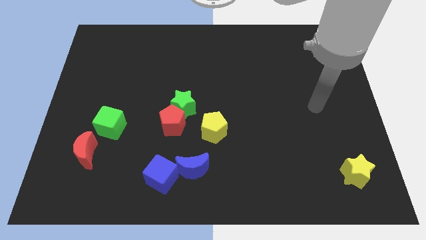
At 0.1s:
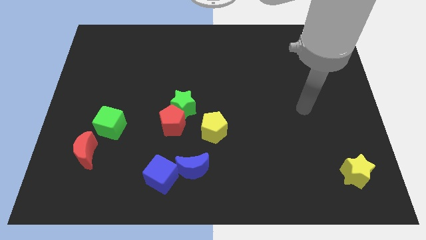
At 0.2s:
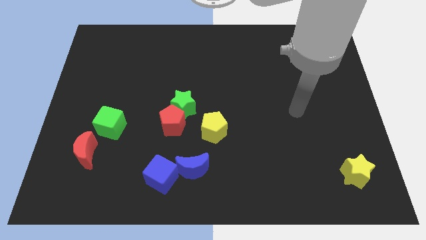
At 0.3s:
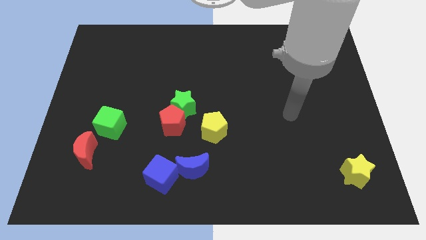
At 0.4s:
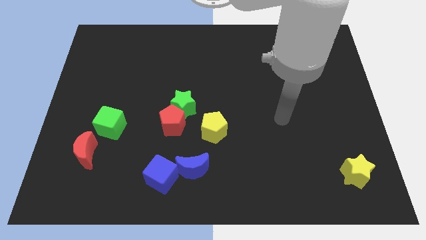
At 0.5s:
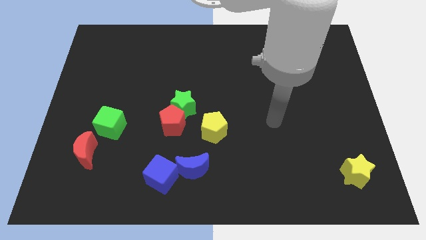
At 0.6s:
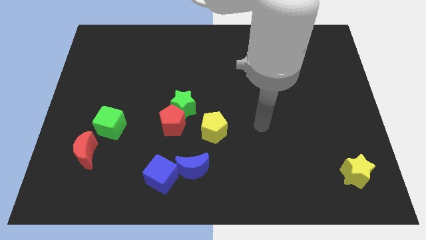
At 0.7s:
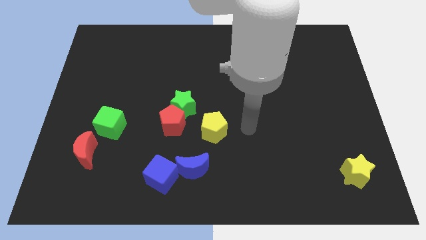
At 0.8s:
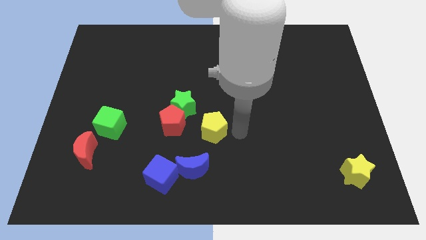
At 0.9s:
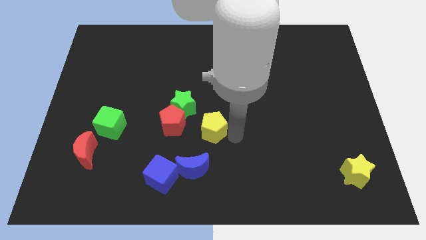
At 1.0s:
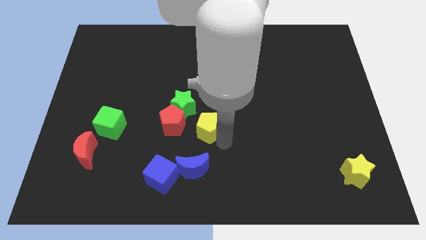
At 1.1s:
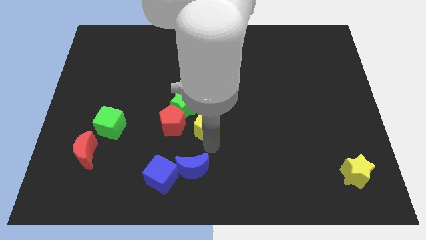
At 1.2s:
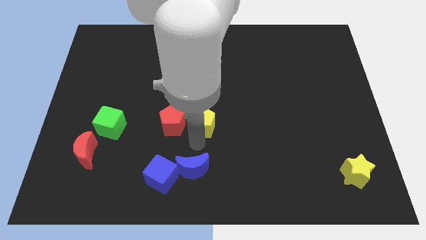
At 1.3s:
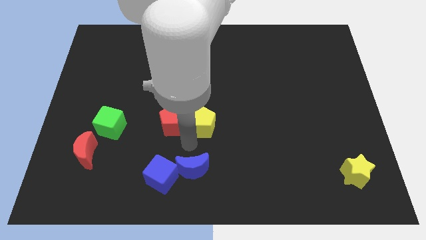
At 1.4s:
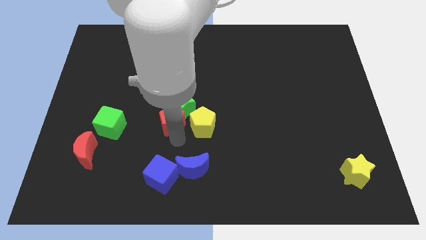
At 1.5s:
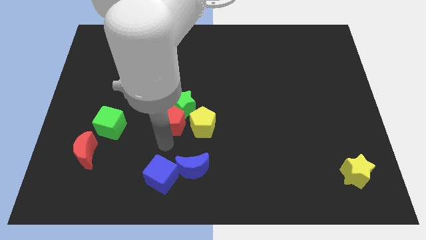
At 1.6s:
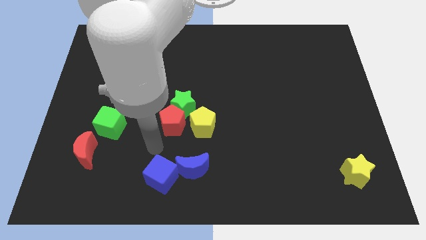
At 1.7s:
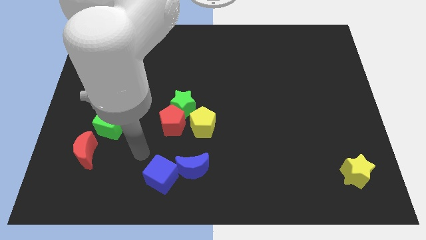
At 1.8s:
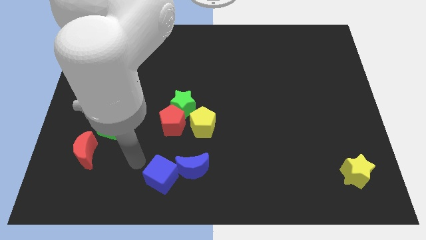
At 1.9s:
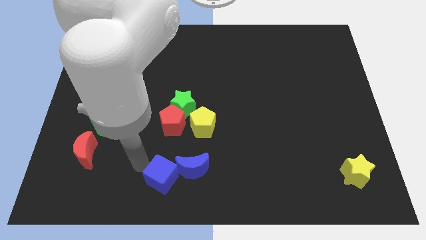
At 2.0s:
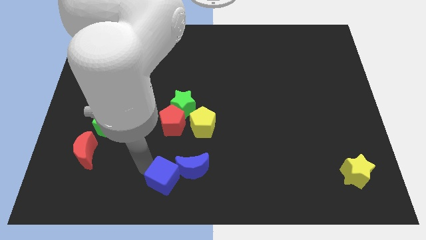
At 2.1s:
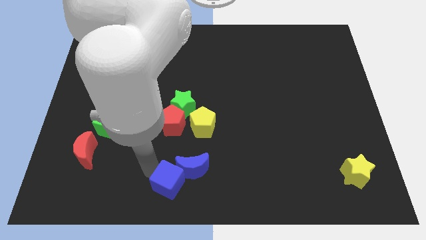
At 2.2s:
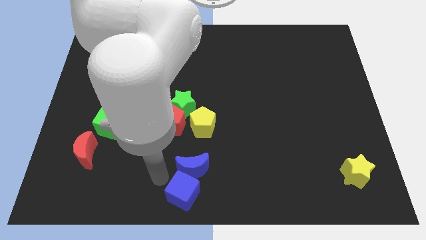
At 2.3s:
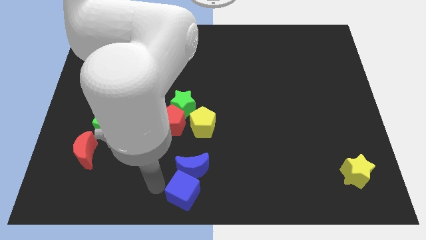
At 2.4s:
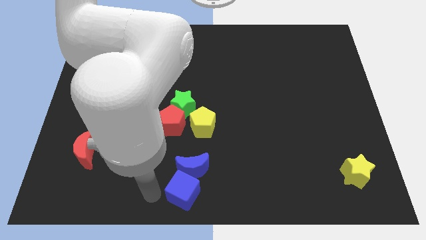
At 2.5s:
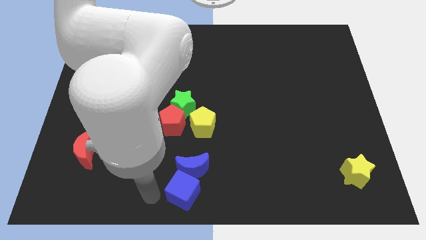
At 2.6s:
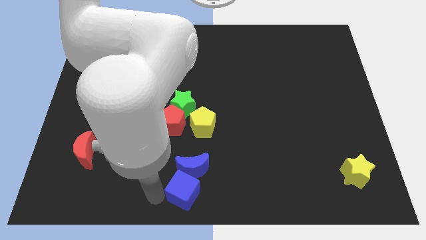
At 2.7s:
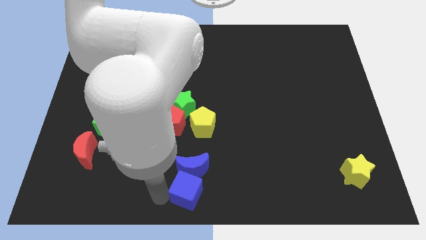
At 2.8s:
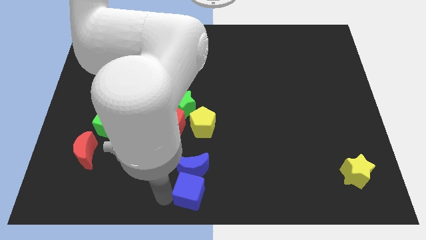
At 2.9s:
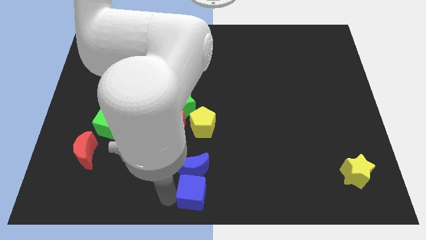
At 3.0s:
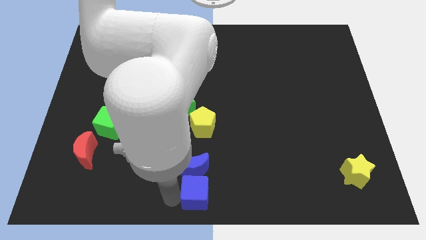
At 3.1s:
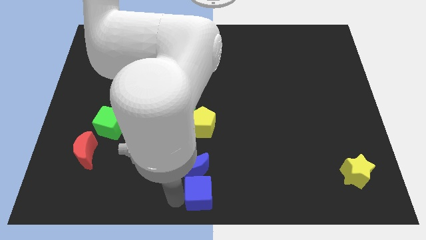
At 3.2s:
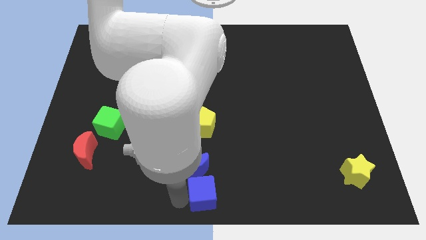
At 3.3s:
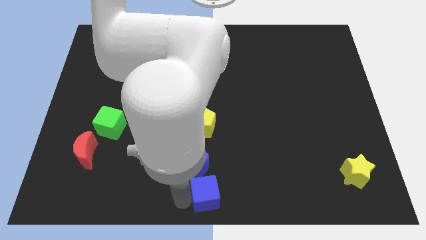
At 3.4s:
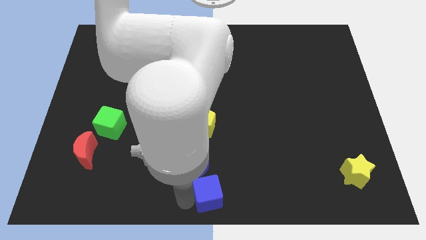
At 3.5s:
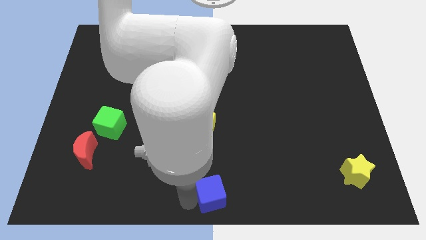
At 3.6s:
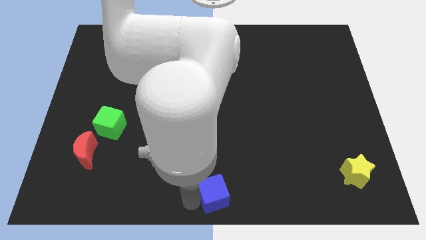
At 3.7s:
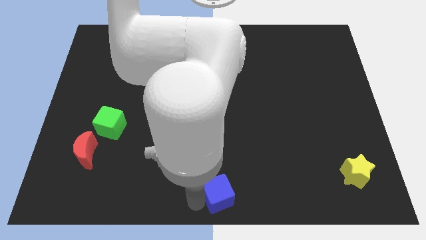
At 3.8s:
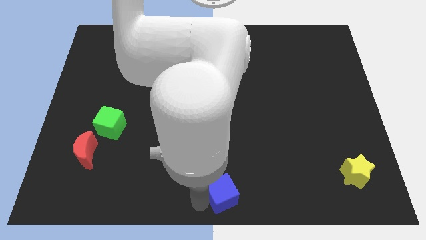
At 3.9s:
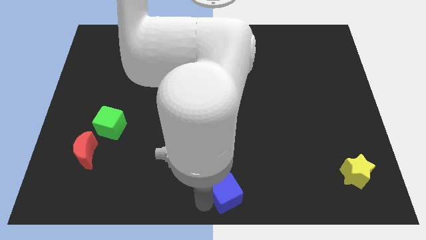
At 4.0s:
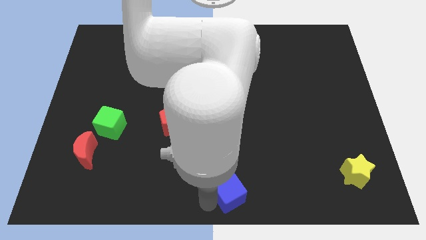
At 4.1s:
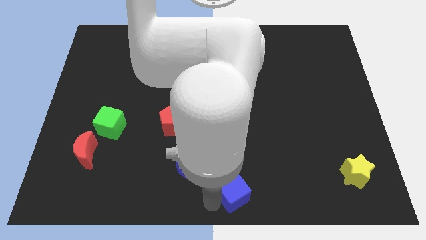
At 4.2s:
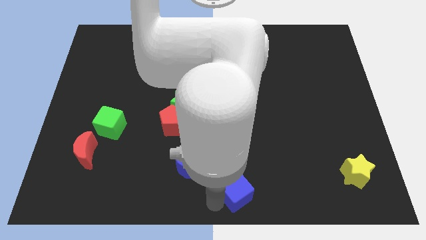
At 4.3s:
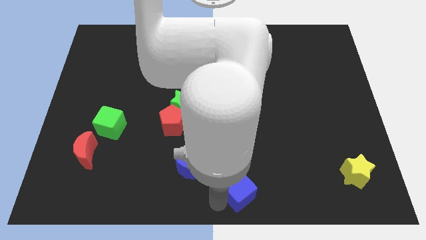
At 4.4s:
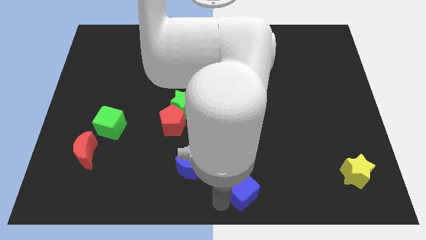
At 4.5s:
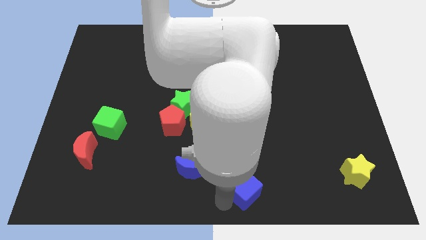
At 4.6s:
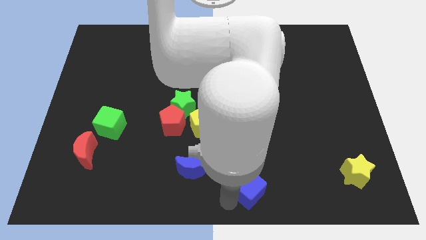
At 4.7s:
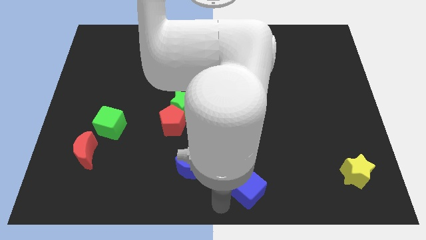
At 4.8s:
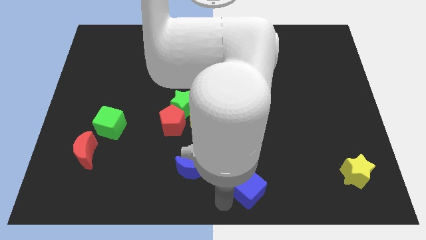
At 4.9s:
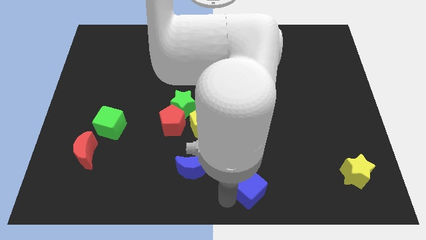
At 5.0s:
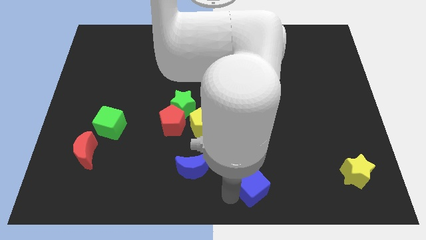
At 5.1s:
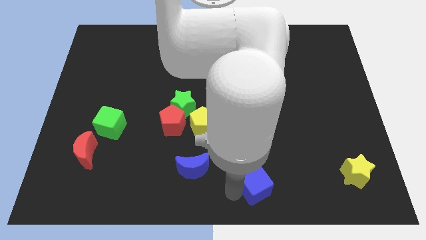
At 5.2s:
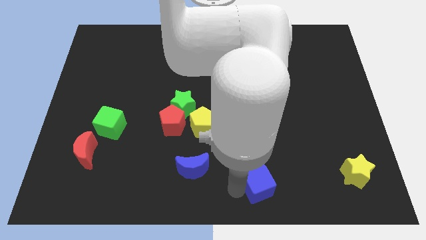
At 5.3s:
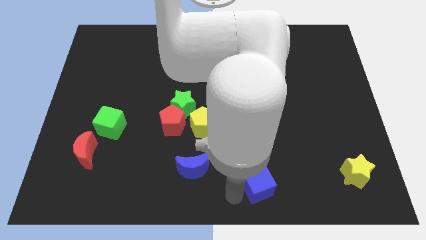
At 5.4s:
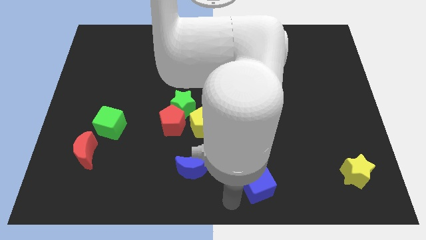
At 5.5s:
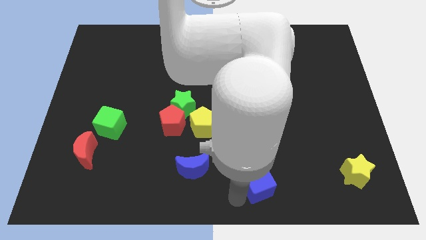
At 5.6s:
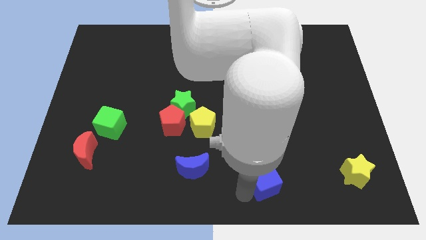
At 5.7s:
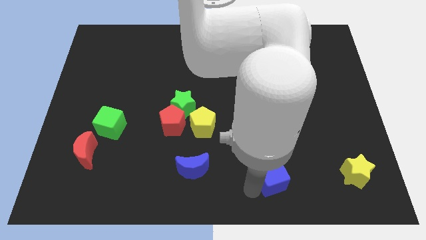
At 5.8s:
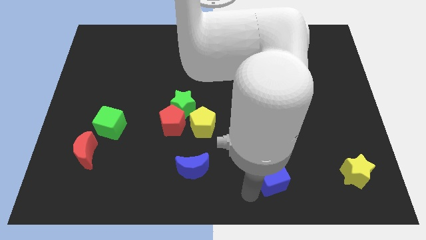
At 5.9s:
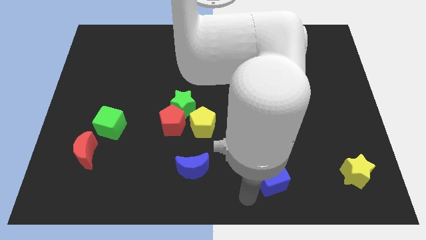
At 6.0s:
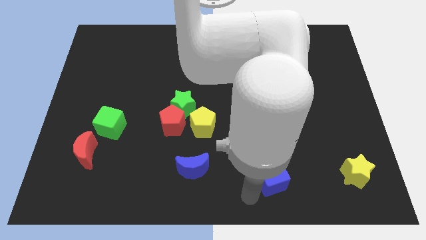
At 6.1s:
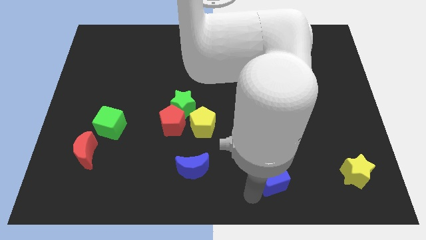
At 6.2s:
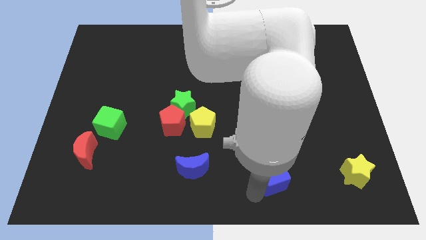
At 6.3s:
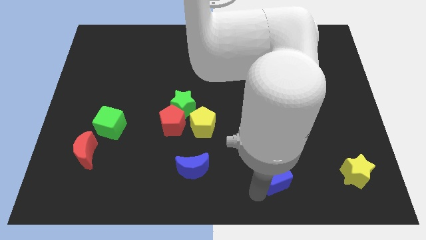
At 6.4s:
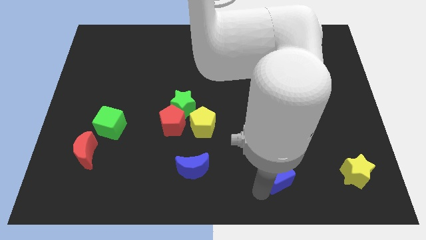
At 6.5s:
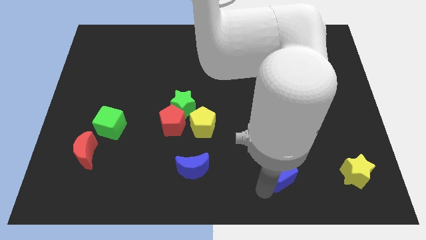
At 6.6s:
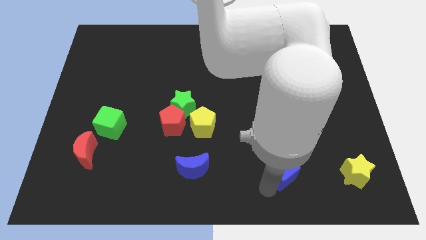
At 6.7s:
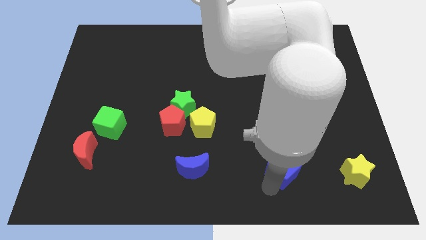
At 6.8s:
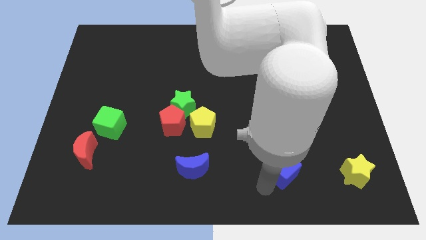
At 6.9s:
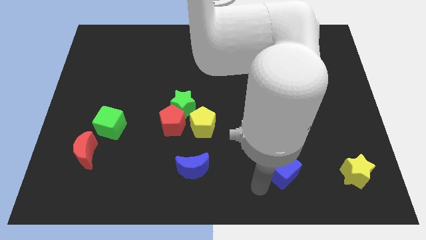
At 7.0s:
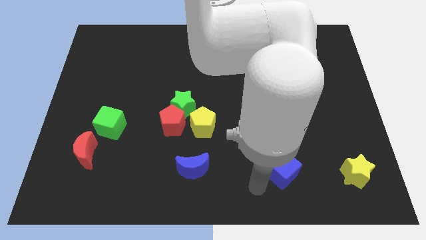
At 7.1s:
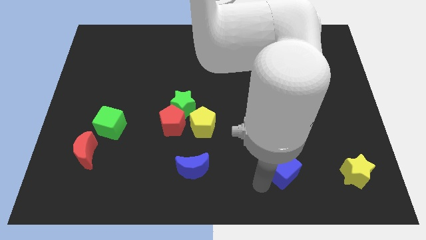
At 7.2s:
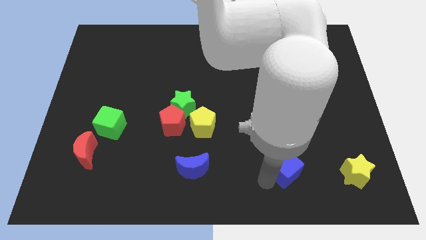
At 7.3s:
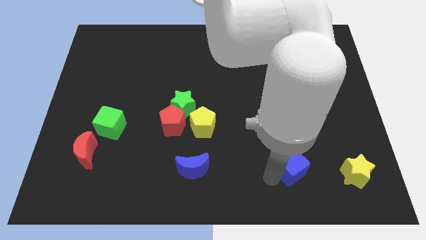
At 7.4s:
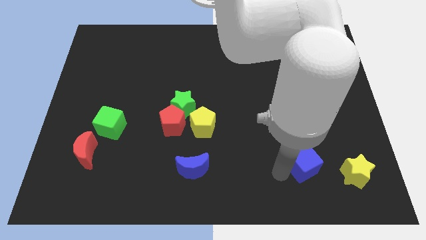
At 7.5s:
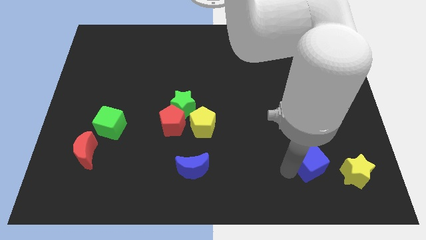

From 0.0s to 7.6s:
move the blue cube to the top left side of the yellow star
